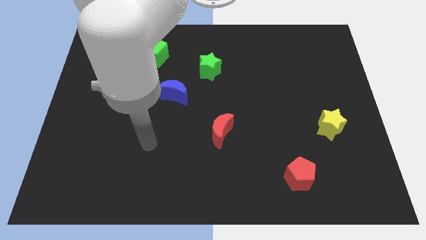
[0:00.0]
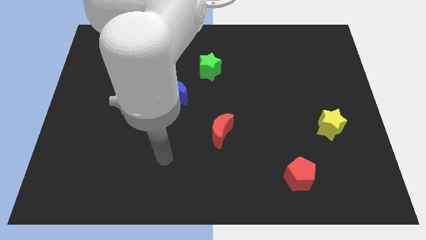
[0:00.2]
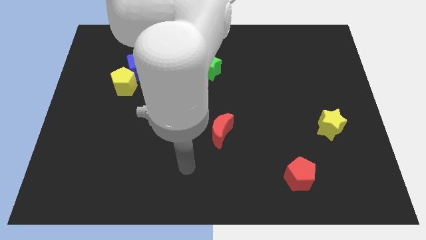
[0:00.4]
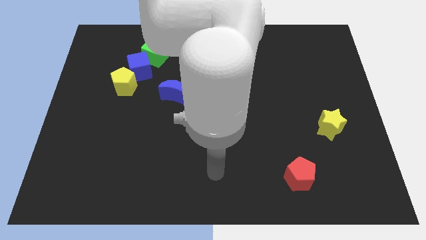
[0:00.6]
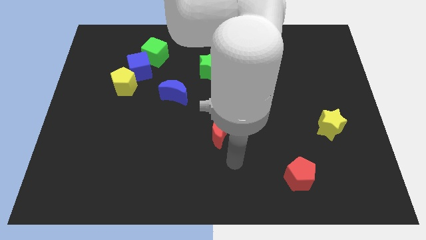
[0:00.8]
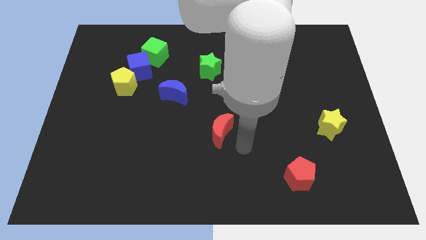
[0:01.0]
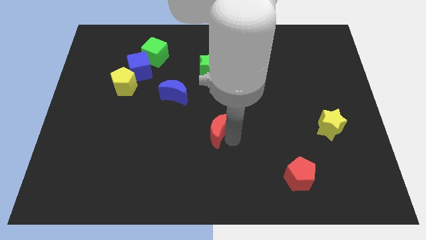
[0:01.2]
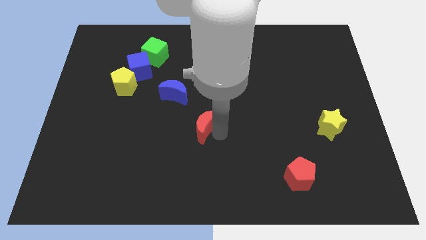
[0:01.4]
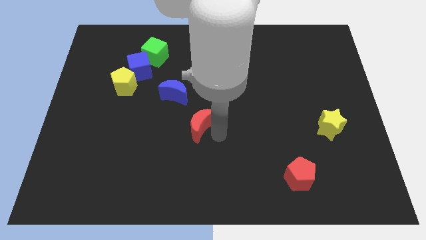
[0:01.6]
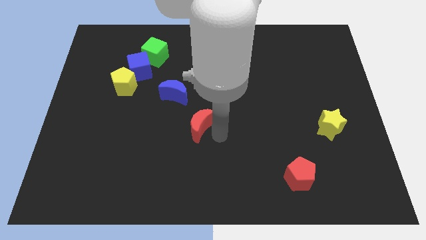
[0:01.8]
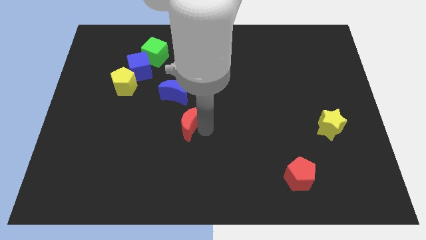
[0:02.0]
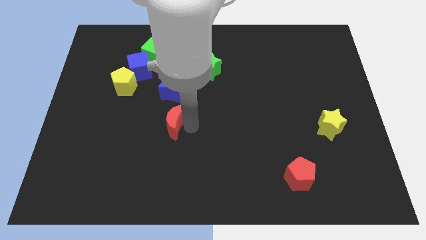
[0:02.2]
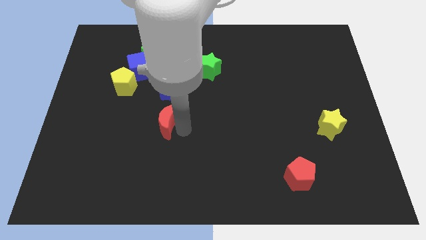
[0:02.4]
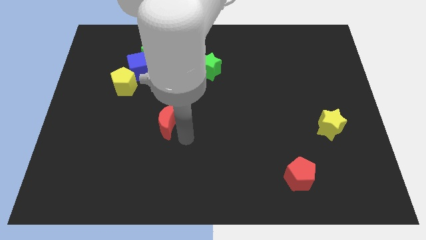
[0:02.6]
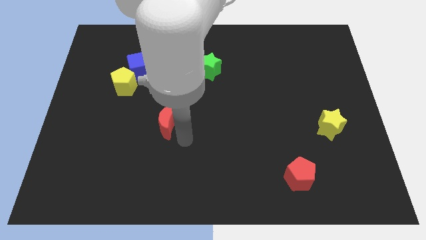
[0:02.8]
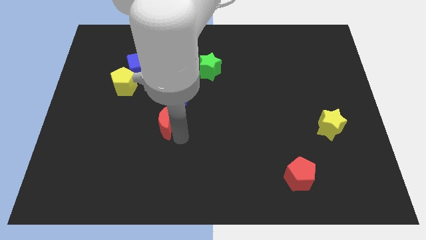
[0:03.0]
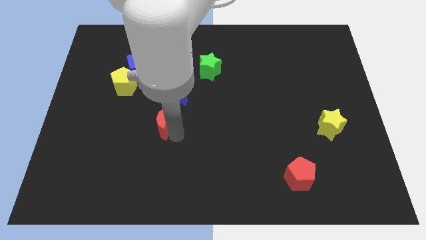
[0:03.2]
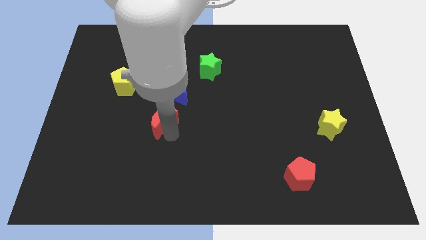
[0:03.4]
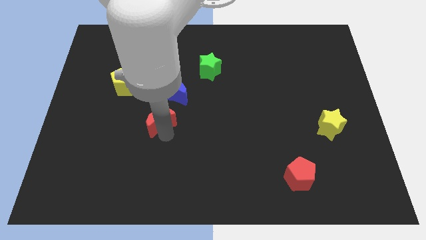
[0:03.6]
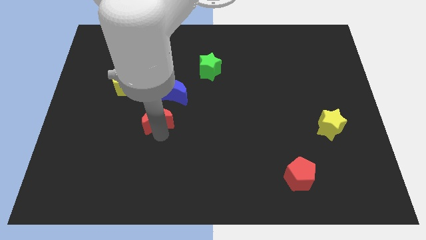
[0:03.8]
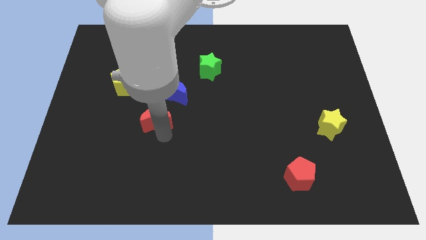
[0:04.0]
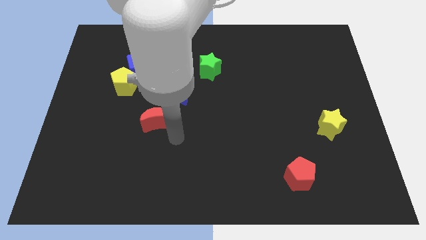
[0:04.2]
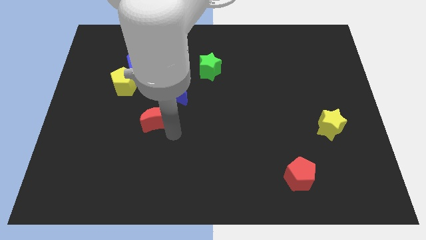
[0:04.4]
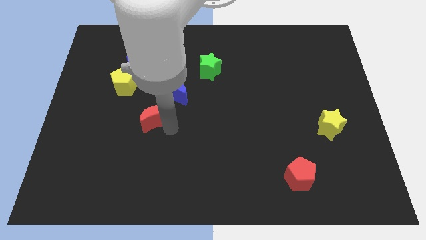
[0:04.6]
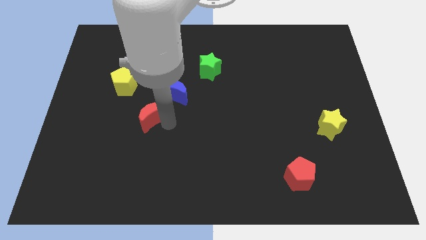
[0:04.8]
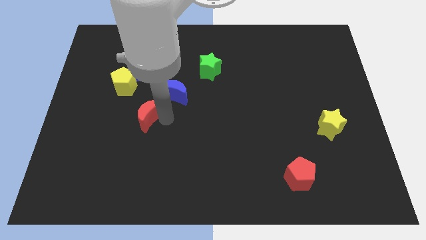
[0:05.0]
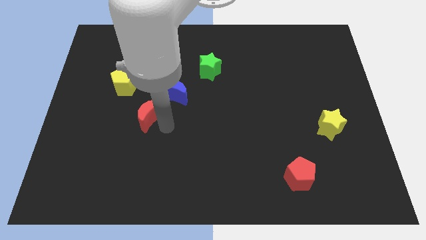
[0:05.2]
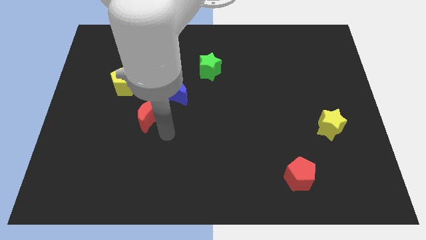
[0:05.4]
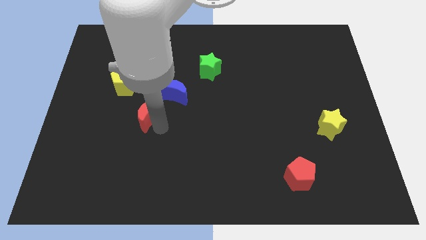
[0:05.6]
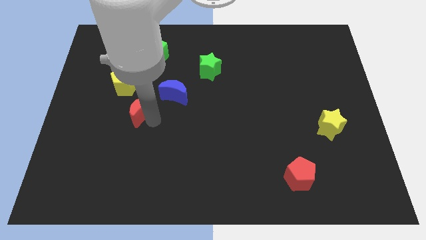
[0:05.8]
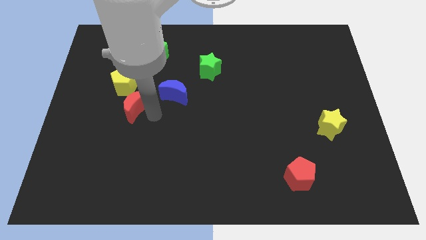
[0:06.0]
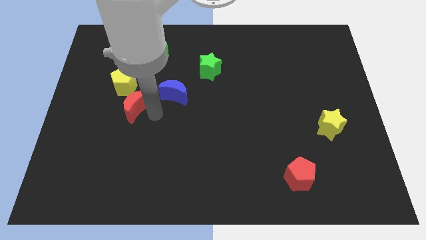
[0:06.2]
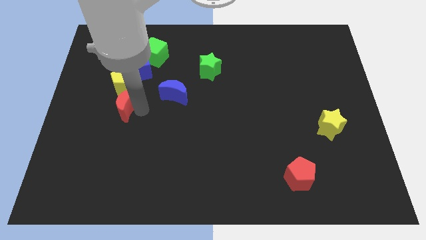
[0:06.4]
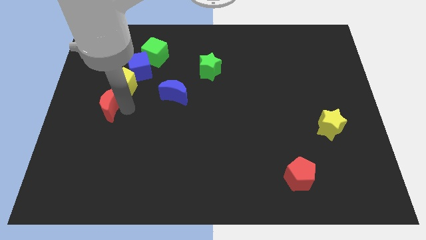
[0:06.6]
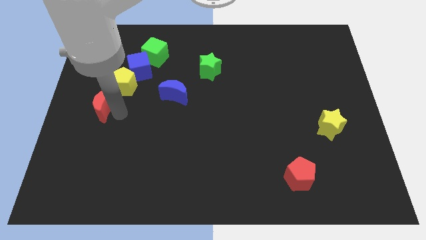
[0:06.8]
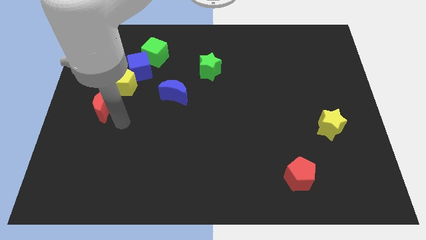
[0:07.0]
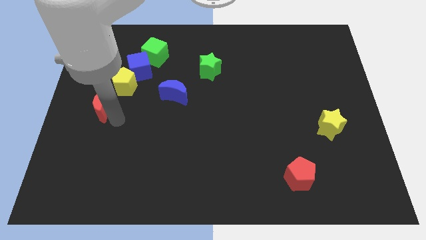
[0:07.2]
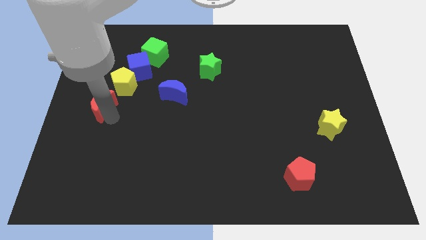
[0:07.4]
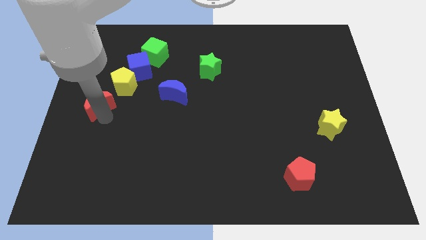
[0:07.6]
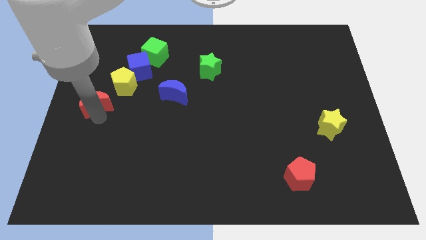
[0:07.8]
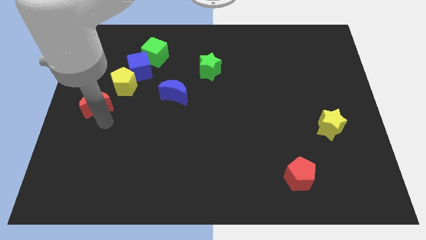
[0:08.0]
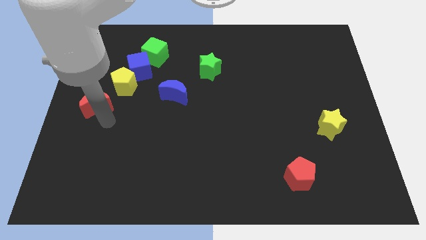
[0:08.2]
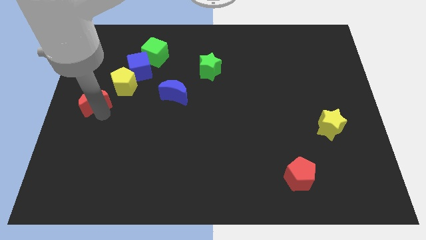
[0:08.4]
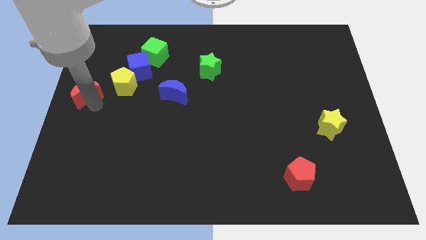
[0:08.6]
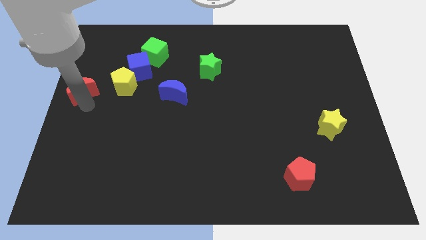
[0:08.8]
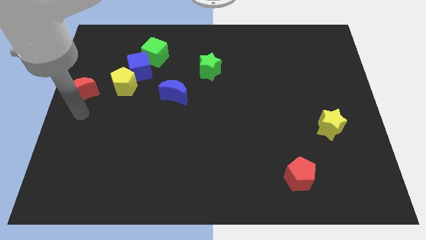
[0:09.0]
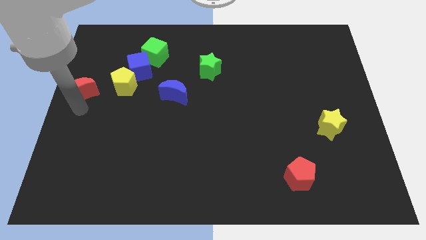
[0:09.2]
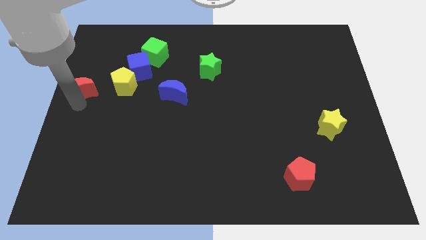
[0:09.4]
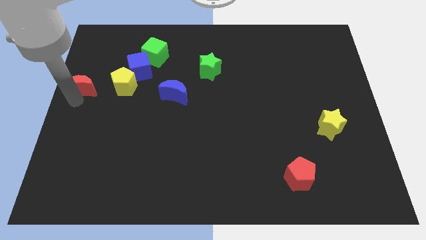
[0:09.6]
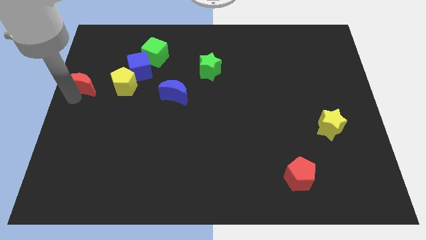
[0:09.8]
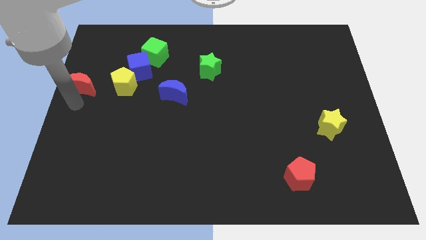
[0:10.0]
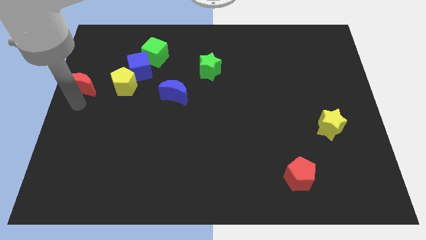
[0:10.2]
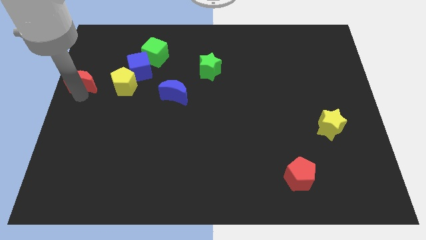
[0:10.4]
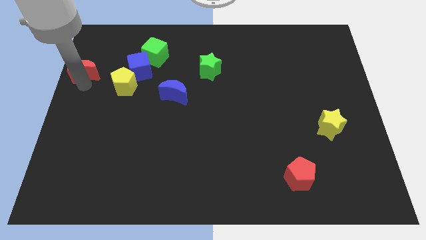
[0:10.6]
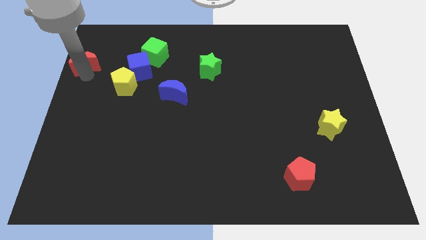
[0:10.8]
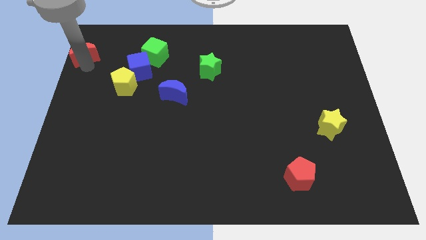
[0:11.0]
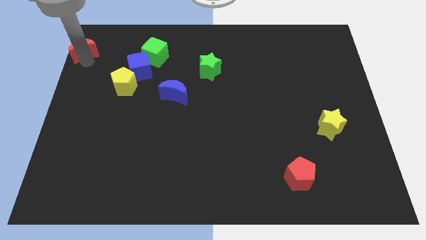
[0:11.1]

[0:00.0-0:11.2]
move the red moon to the upper left corner

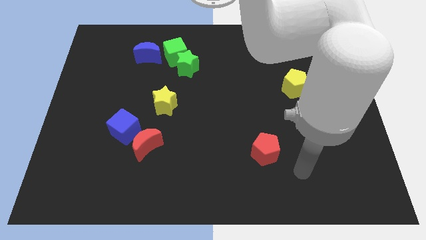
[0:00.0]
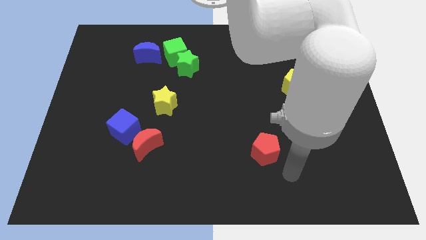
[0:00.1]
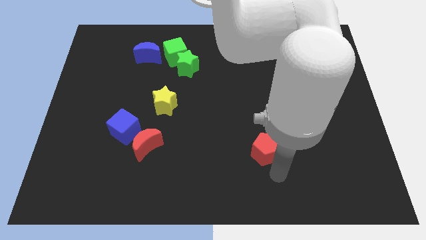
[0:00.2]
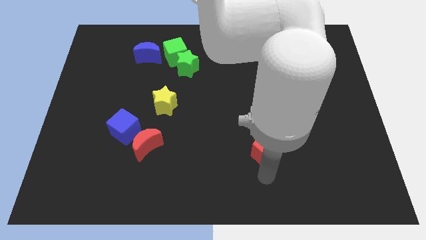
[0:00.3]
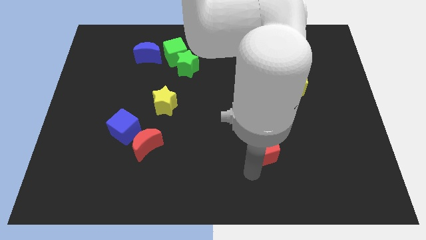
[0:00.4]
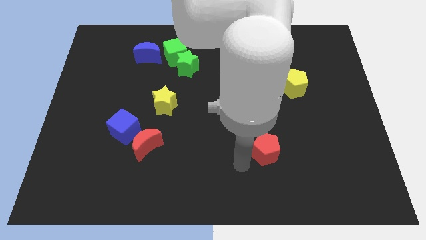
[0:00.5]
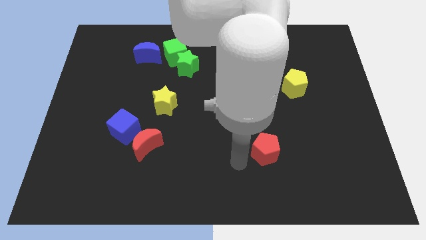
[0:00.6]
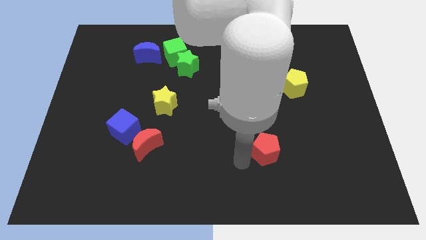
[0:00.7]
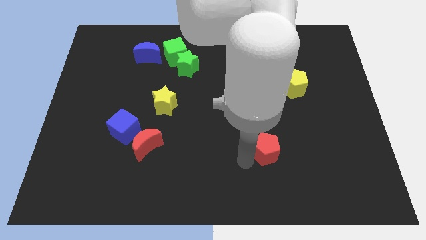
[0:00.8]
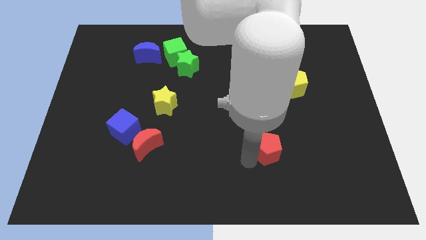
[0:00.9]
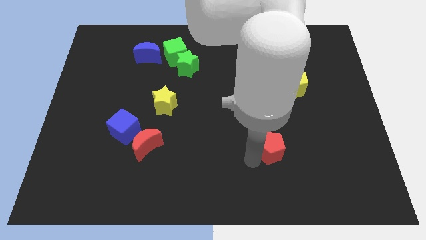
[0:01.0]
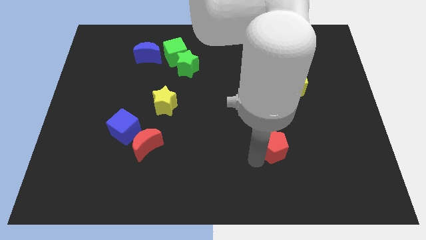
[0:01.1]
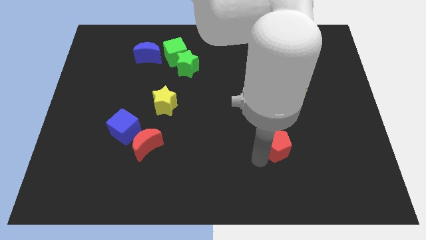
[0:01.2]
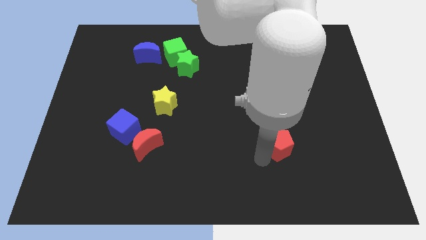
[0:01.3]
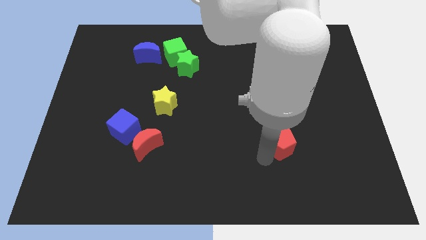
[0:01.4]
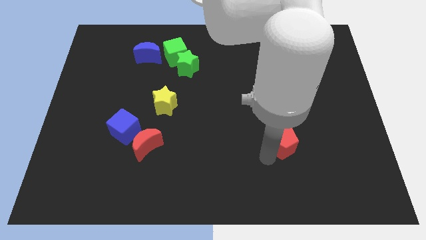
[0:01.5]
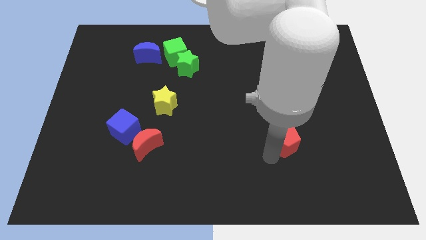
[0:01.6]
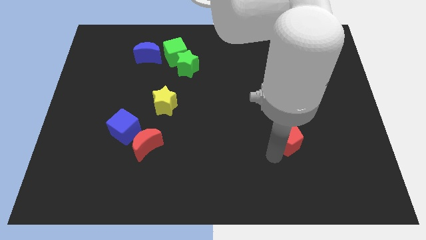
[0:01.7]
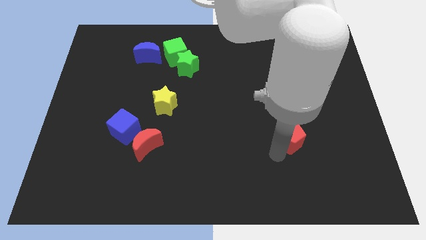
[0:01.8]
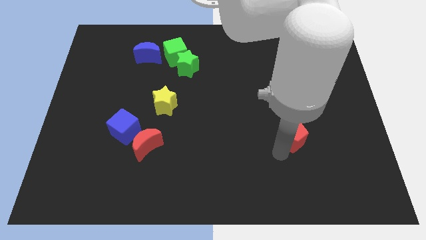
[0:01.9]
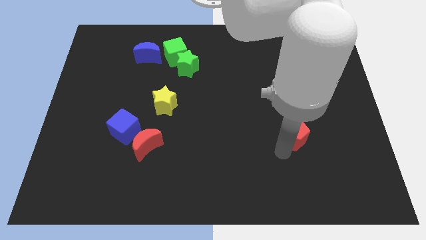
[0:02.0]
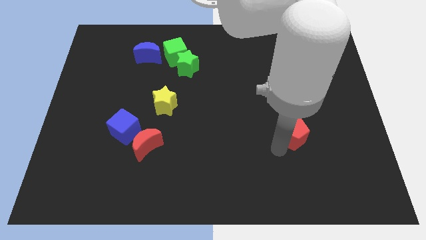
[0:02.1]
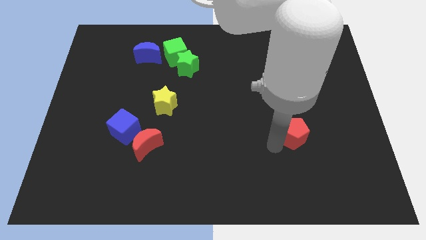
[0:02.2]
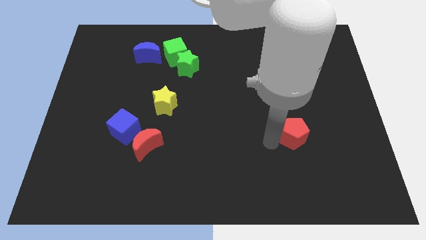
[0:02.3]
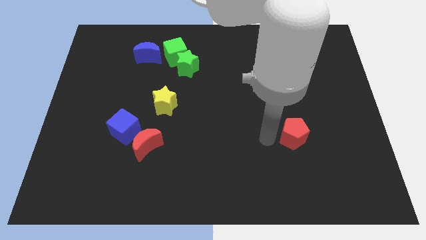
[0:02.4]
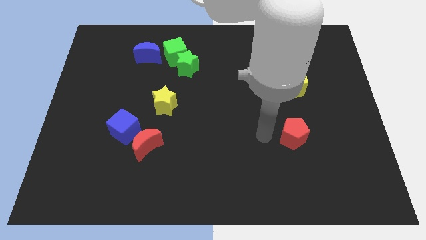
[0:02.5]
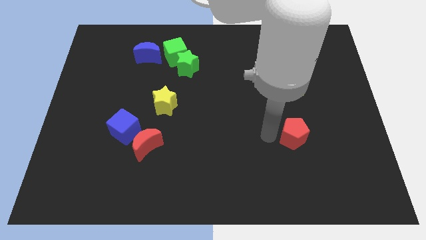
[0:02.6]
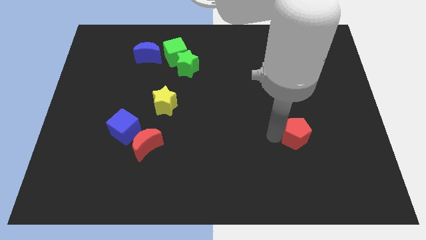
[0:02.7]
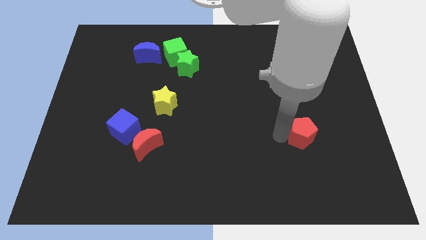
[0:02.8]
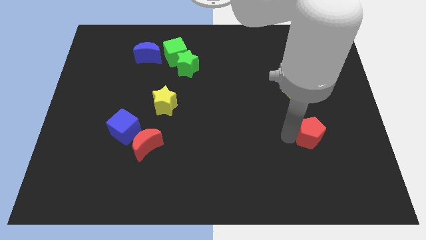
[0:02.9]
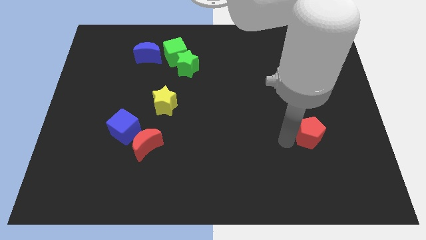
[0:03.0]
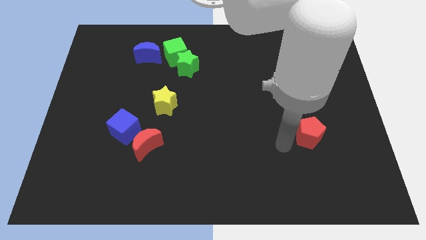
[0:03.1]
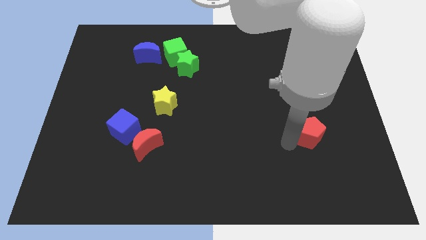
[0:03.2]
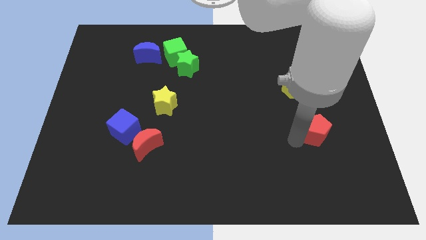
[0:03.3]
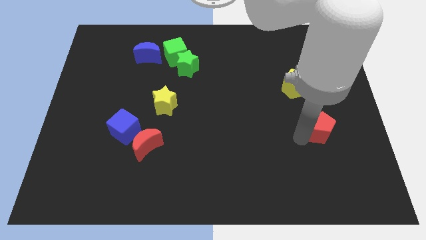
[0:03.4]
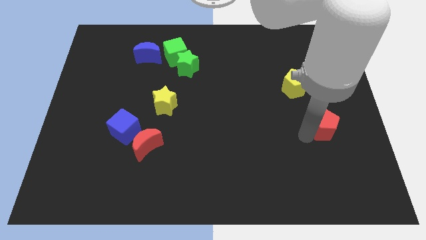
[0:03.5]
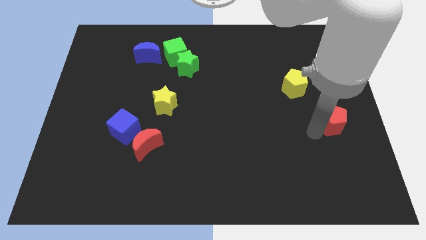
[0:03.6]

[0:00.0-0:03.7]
slide the red pentagon to the right side of the board
